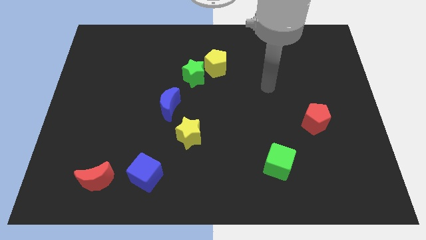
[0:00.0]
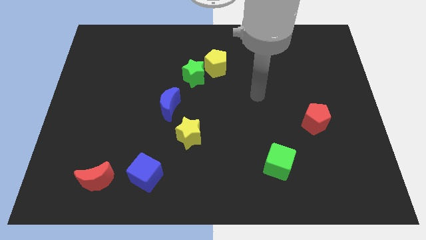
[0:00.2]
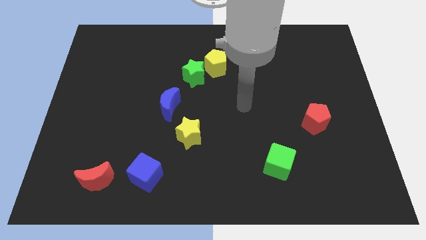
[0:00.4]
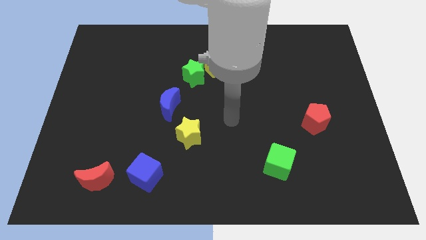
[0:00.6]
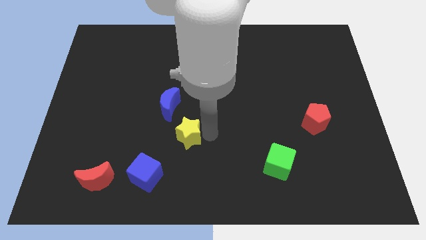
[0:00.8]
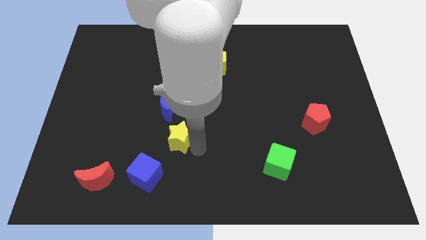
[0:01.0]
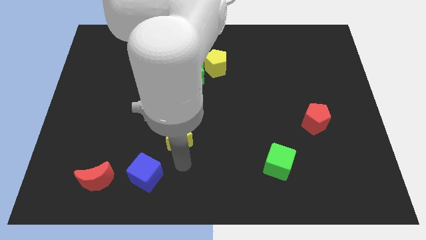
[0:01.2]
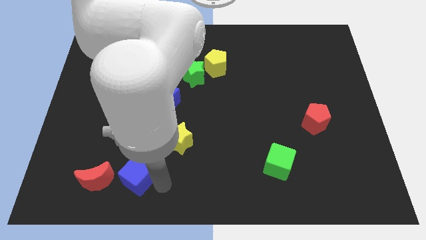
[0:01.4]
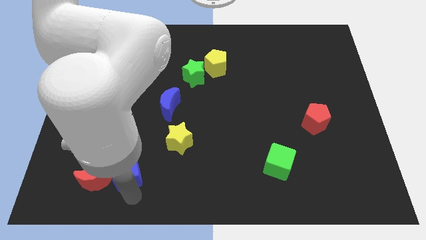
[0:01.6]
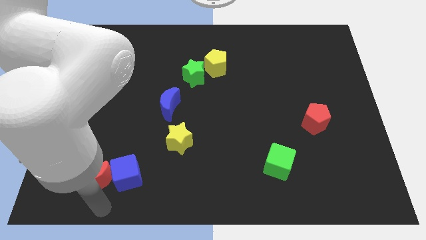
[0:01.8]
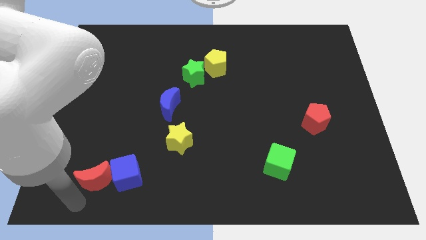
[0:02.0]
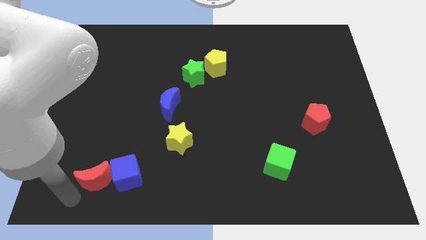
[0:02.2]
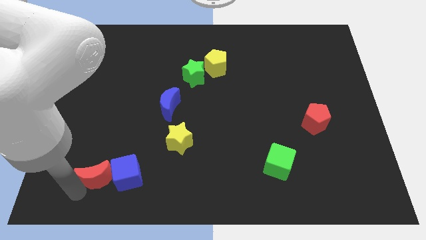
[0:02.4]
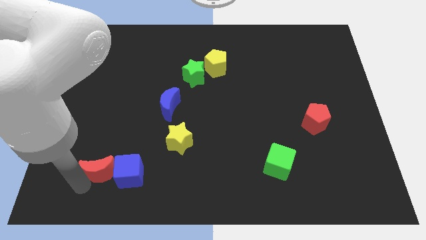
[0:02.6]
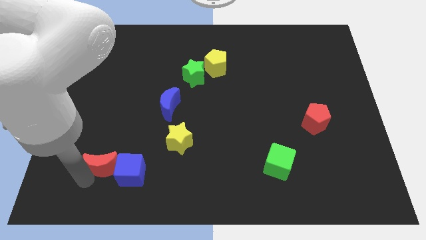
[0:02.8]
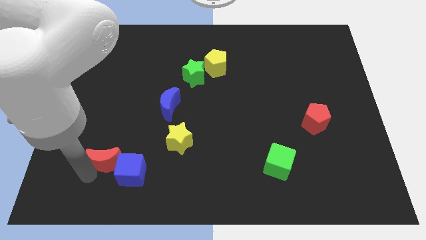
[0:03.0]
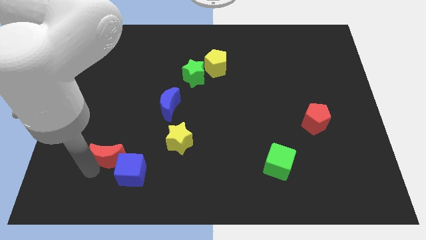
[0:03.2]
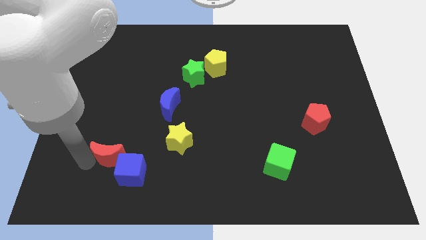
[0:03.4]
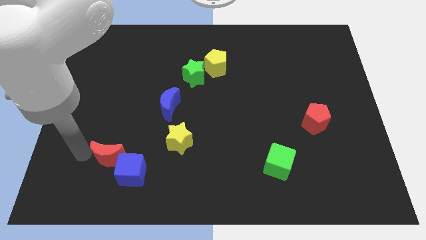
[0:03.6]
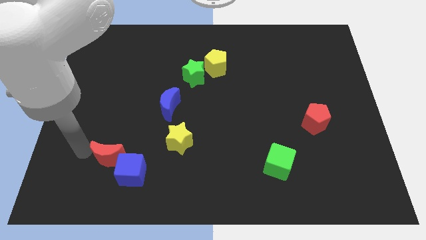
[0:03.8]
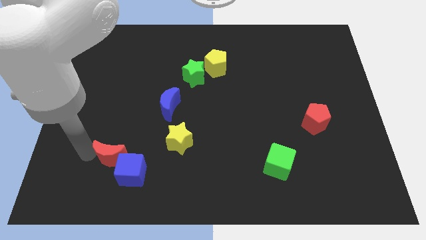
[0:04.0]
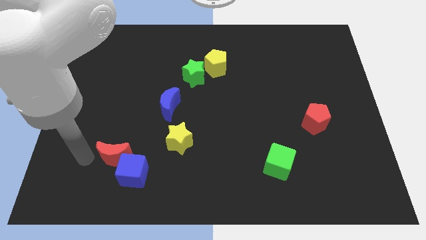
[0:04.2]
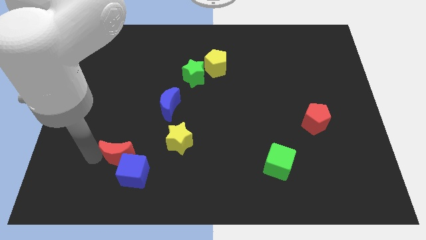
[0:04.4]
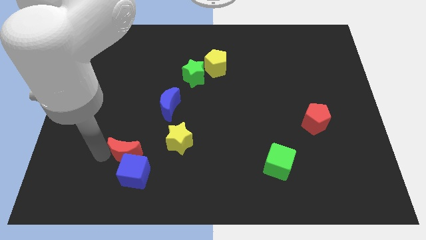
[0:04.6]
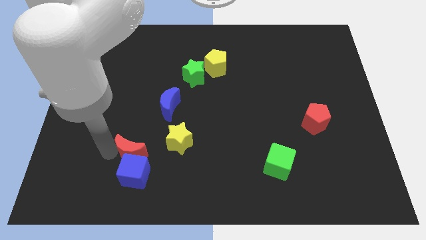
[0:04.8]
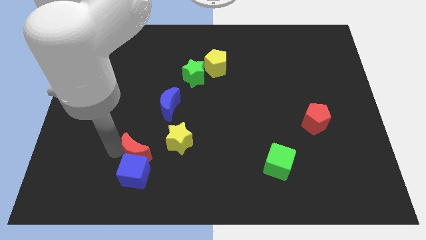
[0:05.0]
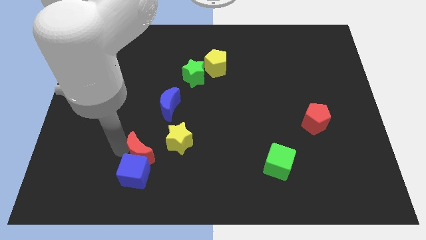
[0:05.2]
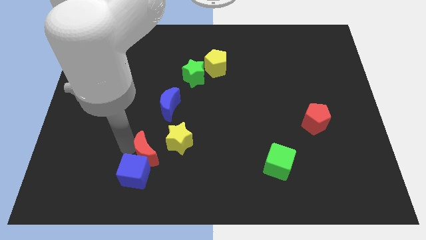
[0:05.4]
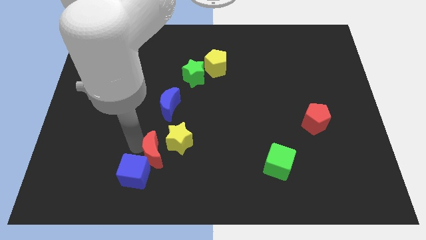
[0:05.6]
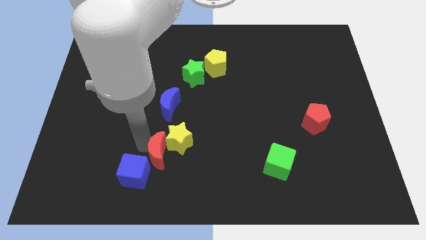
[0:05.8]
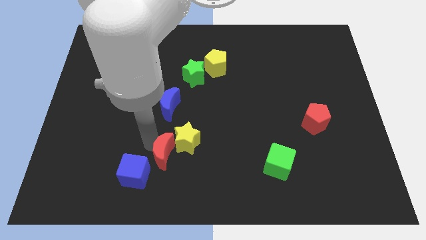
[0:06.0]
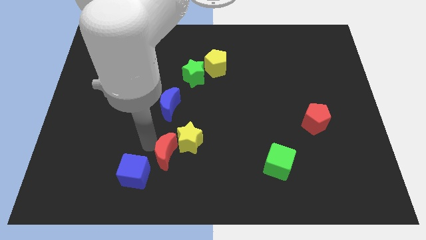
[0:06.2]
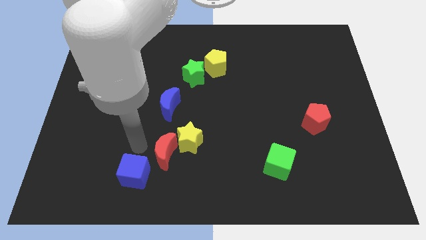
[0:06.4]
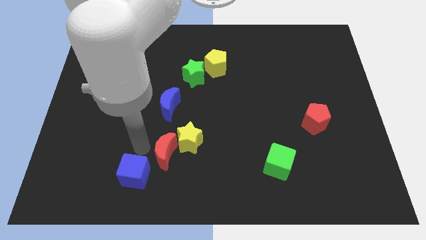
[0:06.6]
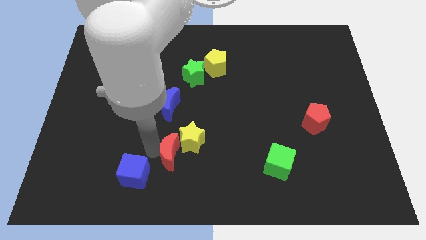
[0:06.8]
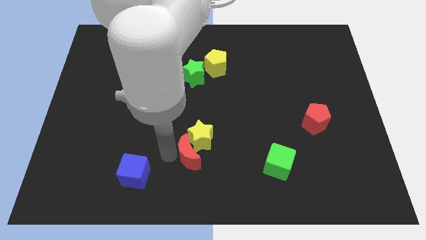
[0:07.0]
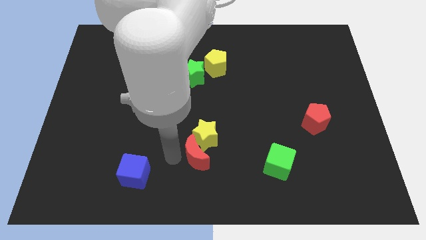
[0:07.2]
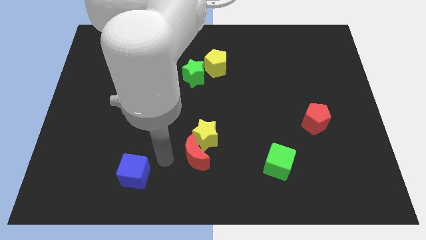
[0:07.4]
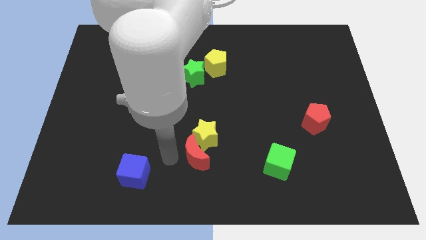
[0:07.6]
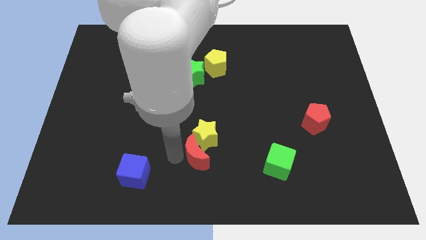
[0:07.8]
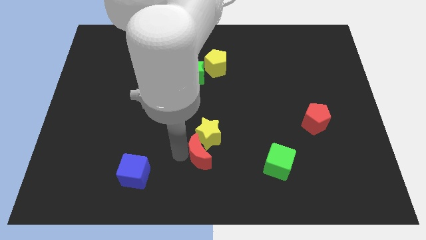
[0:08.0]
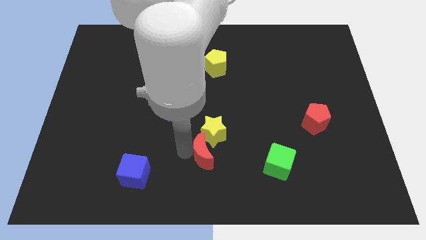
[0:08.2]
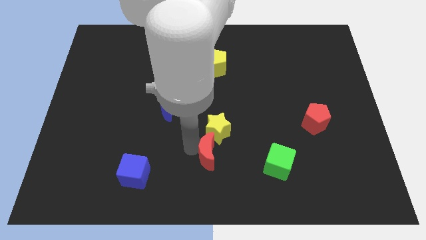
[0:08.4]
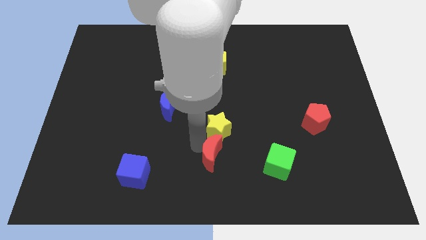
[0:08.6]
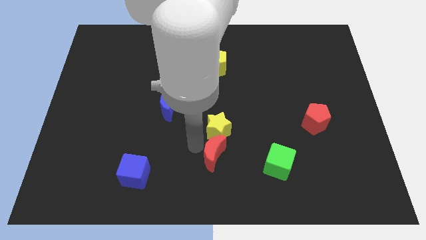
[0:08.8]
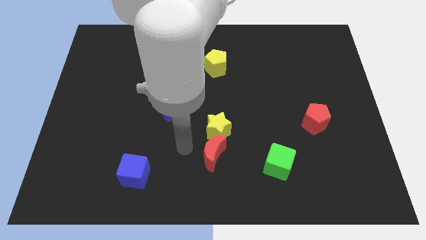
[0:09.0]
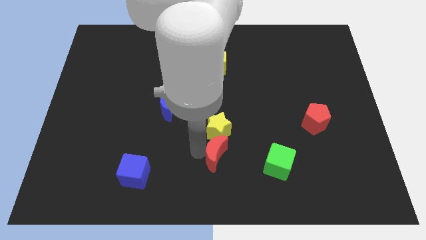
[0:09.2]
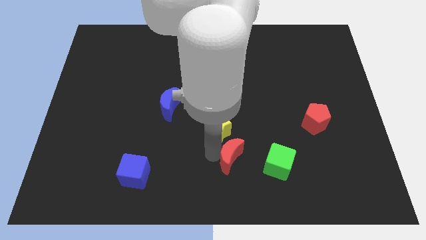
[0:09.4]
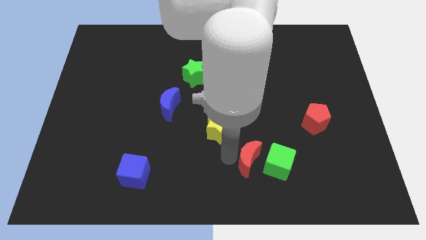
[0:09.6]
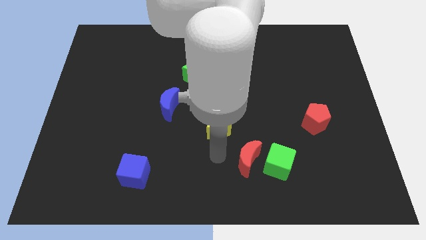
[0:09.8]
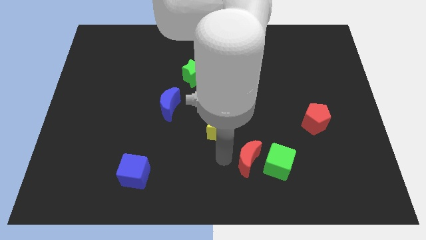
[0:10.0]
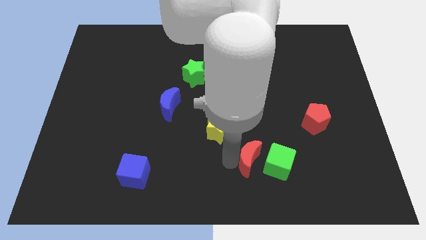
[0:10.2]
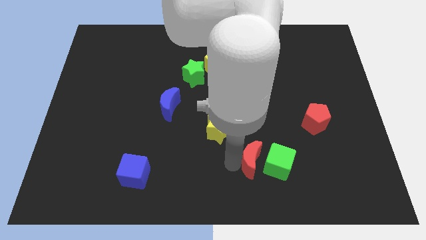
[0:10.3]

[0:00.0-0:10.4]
put the red moon close to the green cube

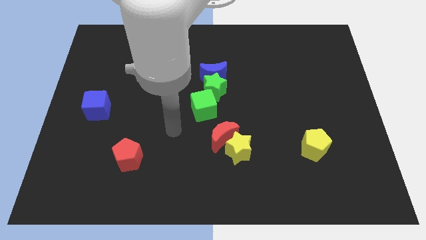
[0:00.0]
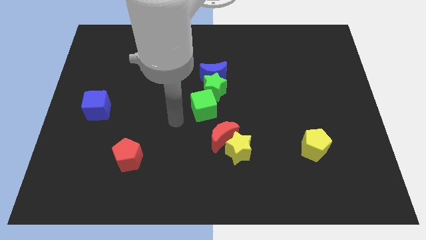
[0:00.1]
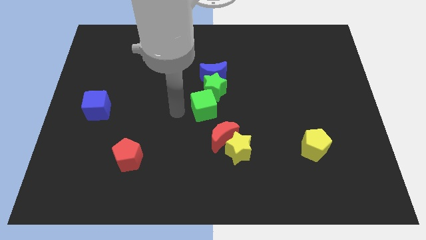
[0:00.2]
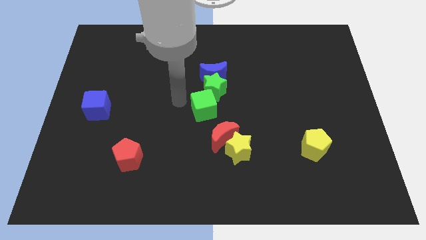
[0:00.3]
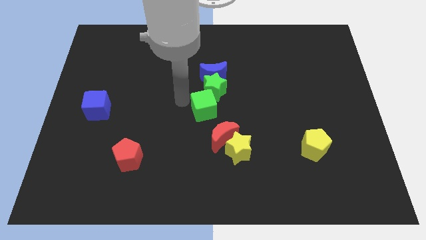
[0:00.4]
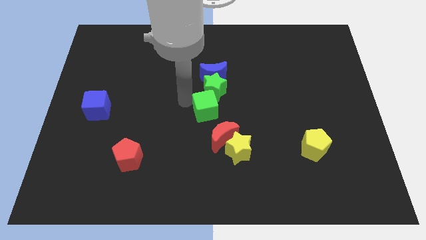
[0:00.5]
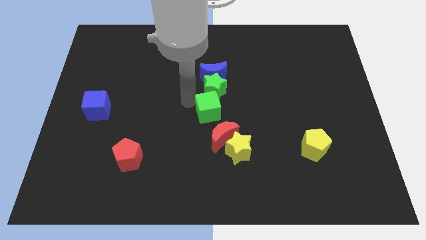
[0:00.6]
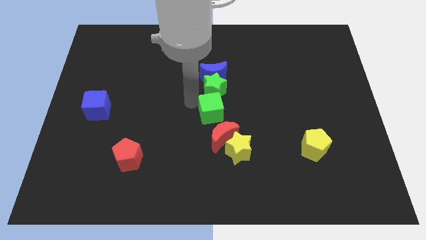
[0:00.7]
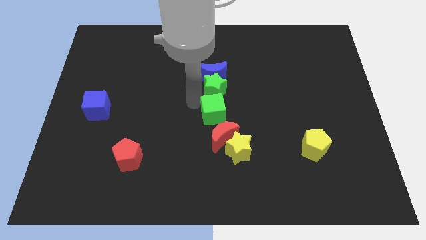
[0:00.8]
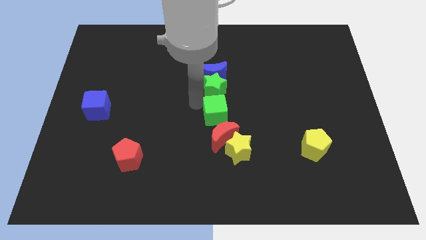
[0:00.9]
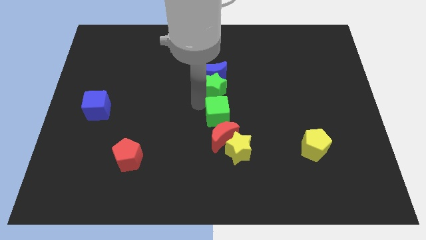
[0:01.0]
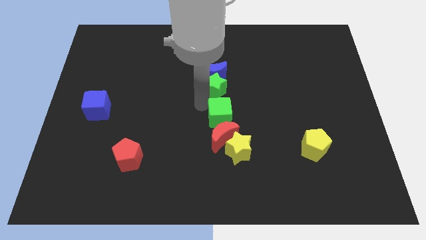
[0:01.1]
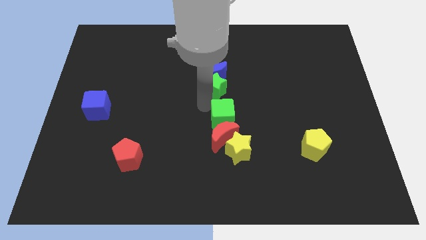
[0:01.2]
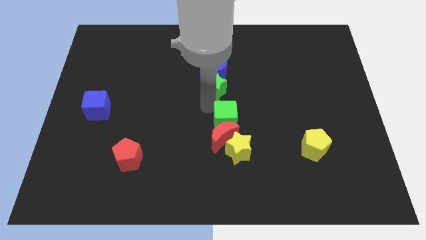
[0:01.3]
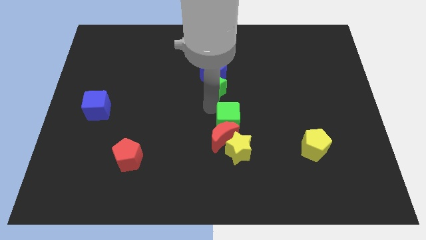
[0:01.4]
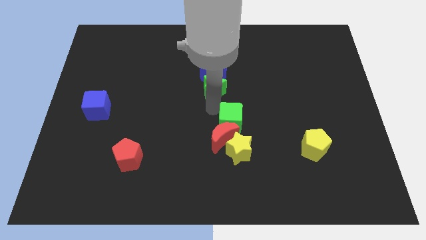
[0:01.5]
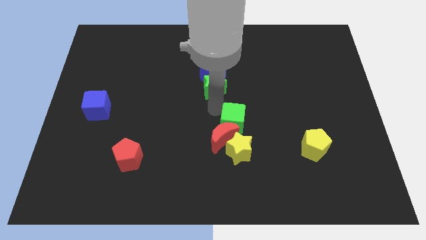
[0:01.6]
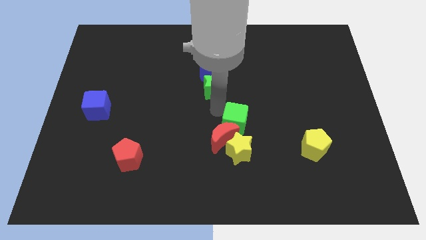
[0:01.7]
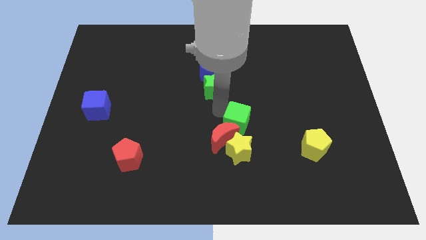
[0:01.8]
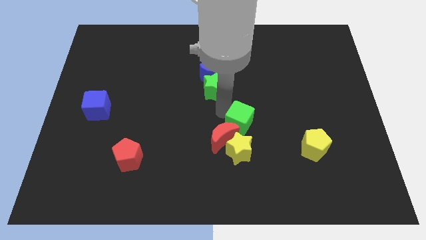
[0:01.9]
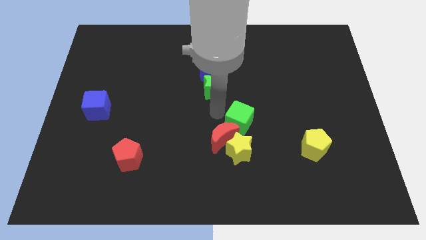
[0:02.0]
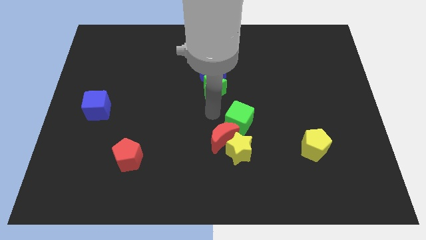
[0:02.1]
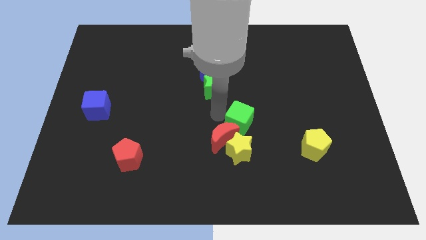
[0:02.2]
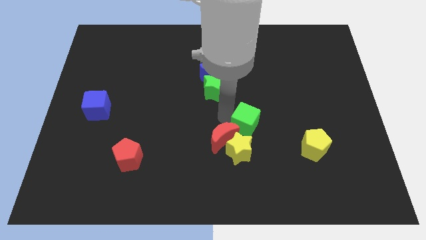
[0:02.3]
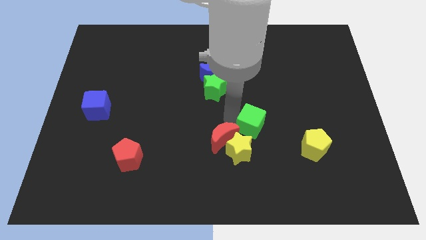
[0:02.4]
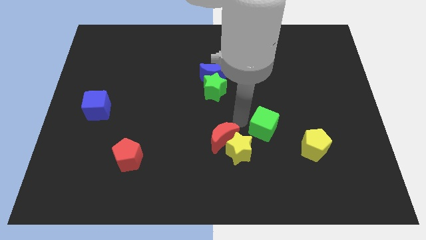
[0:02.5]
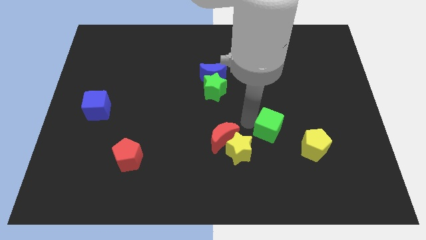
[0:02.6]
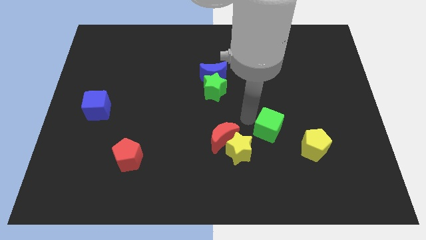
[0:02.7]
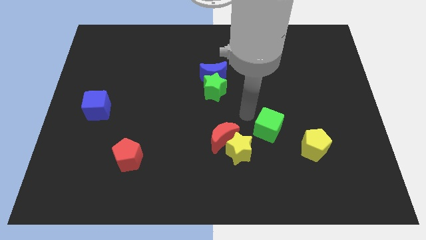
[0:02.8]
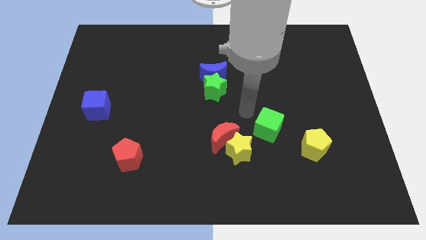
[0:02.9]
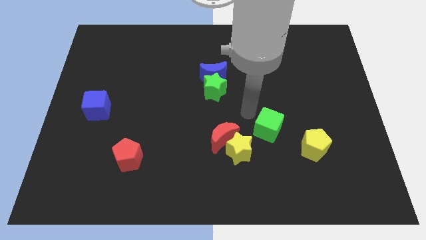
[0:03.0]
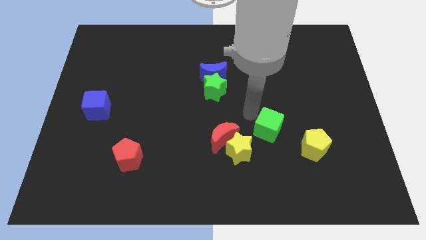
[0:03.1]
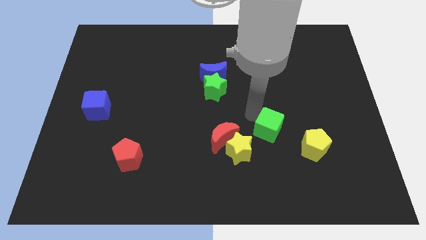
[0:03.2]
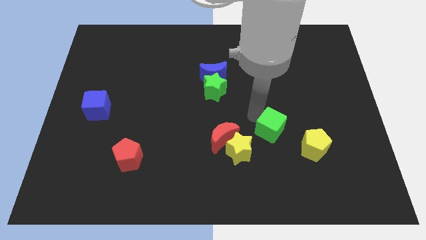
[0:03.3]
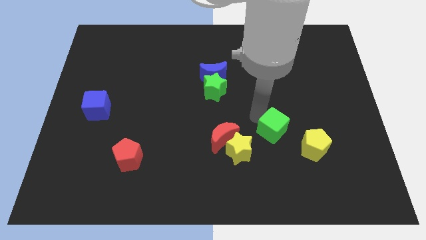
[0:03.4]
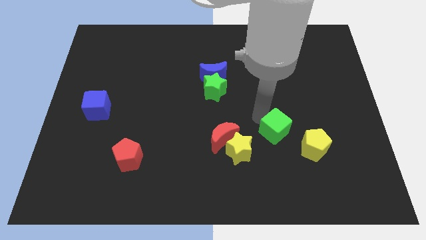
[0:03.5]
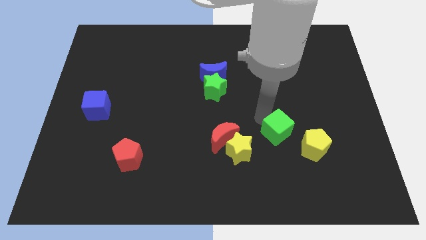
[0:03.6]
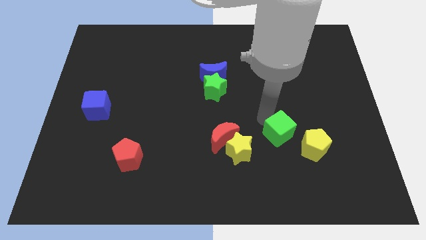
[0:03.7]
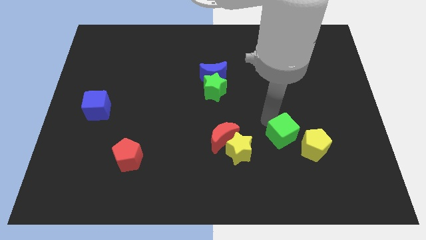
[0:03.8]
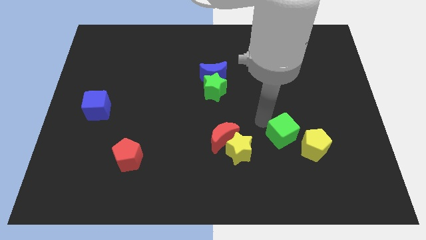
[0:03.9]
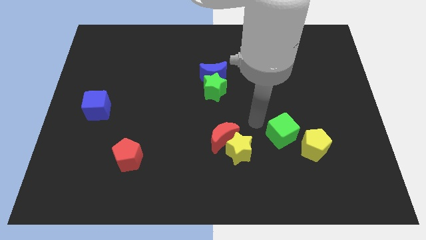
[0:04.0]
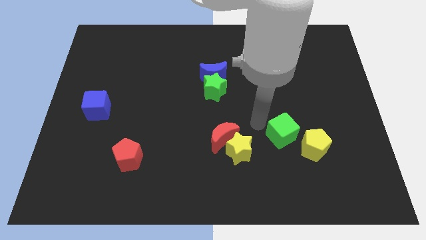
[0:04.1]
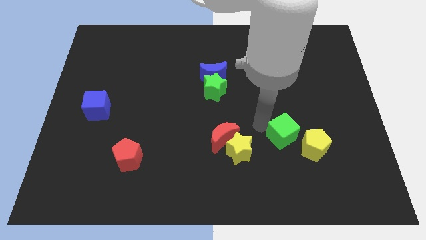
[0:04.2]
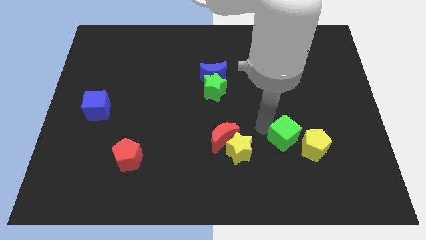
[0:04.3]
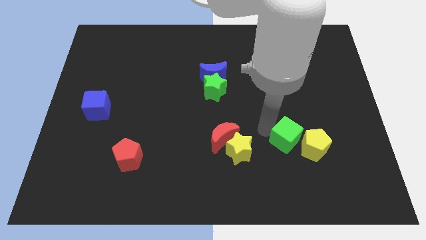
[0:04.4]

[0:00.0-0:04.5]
move the green cube next to the yellow pentagon
